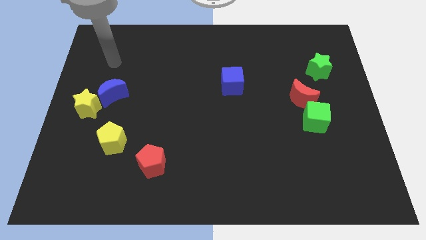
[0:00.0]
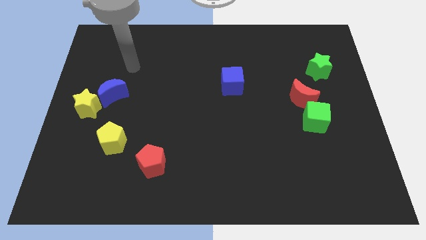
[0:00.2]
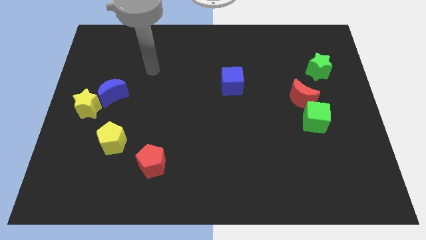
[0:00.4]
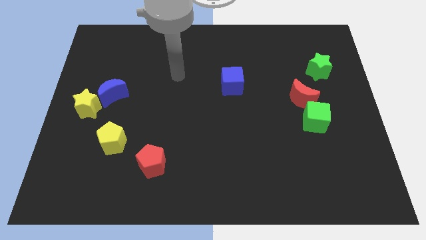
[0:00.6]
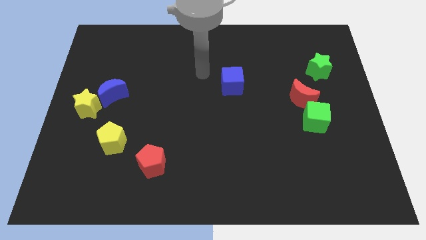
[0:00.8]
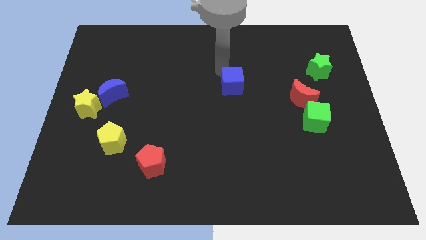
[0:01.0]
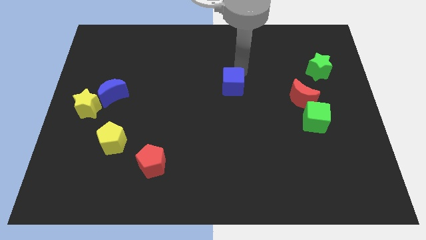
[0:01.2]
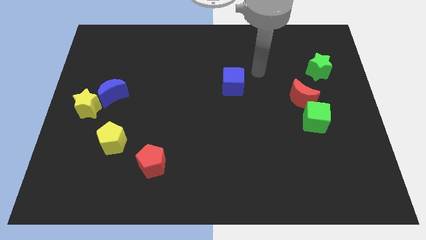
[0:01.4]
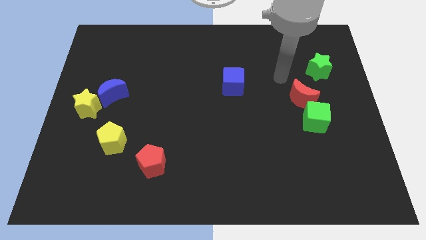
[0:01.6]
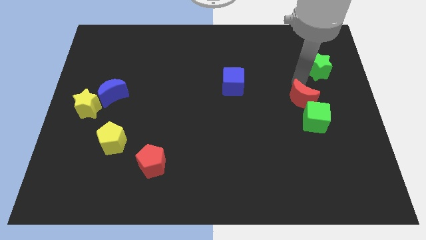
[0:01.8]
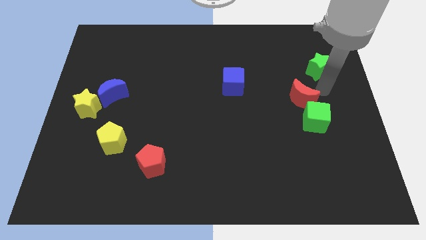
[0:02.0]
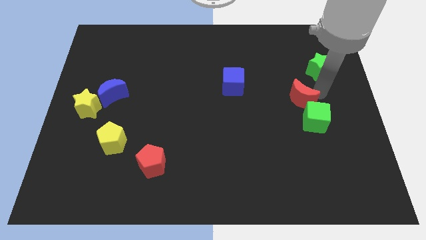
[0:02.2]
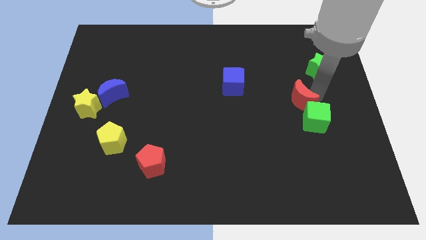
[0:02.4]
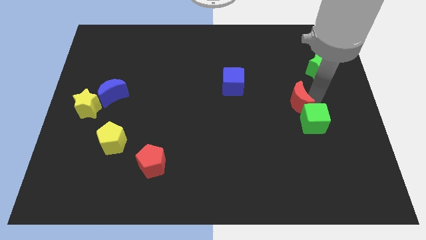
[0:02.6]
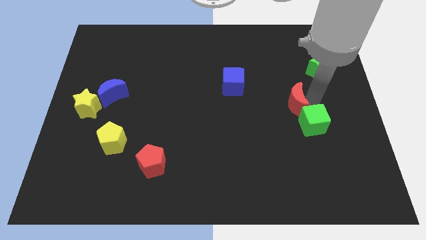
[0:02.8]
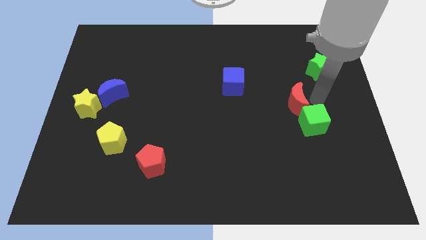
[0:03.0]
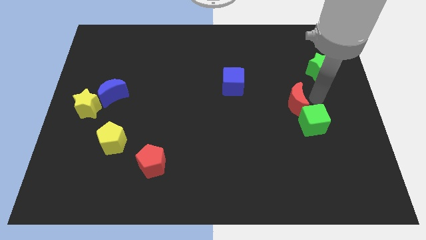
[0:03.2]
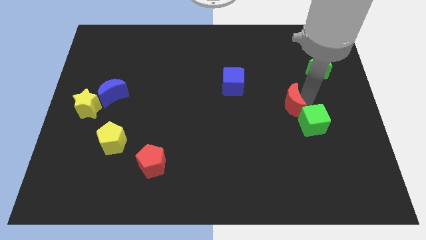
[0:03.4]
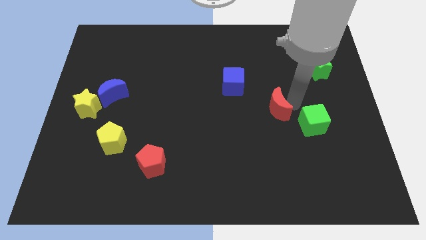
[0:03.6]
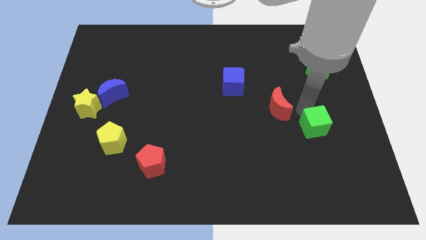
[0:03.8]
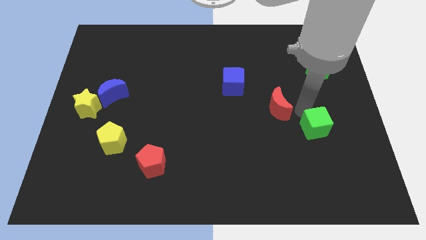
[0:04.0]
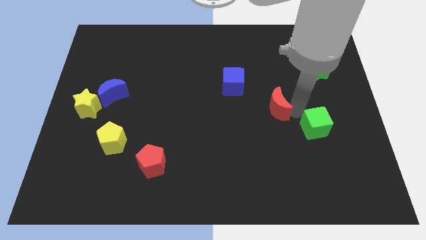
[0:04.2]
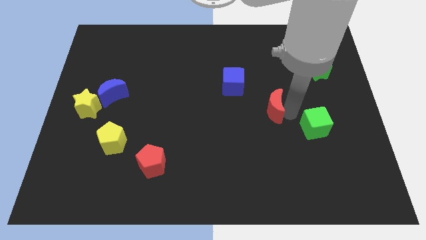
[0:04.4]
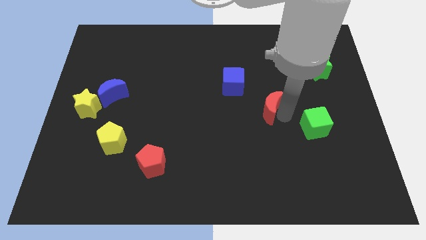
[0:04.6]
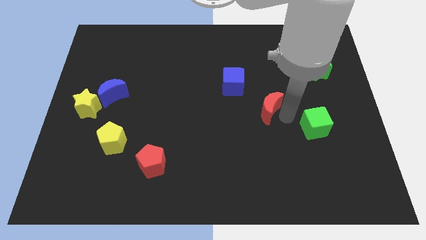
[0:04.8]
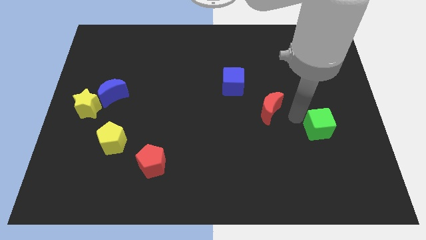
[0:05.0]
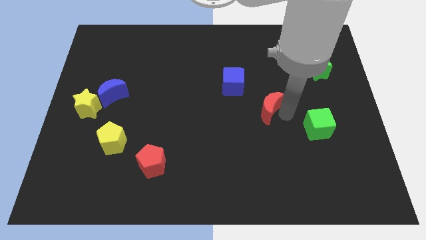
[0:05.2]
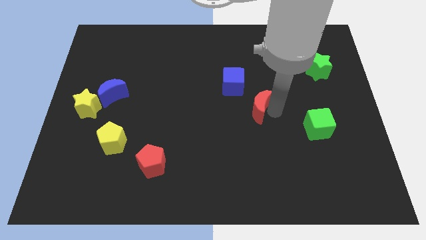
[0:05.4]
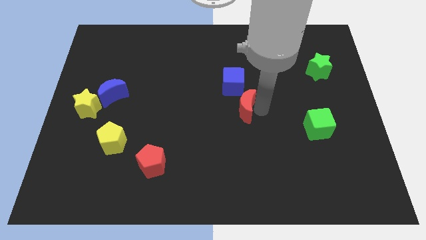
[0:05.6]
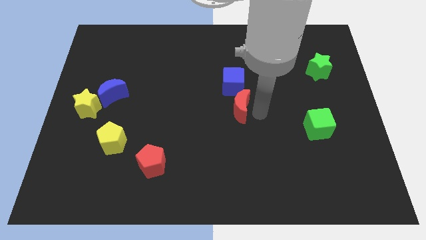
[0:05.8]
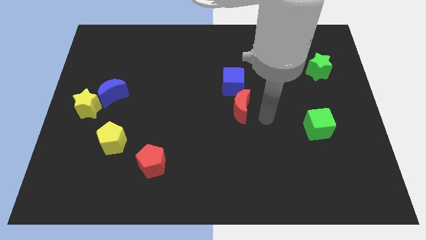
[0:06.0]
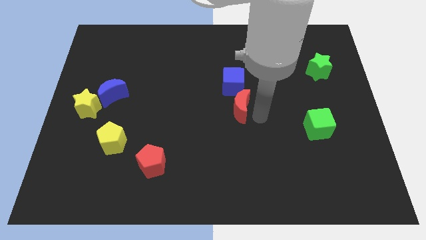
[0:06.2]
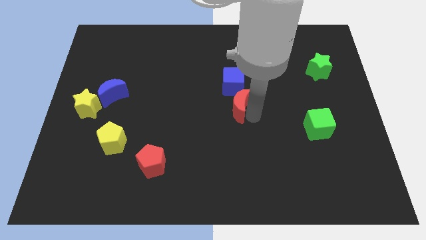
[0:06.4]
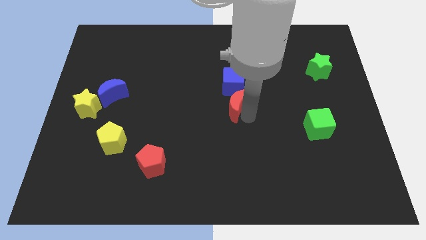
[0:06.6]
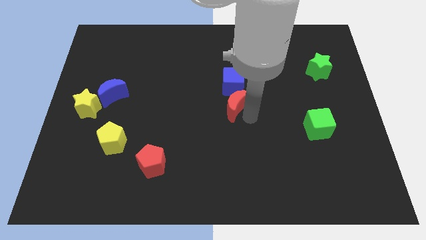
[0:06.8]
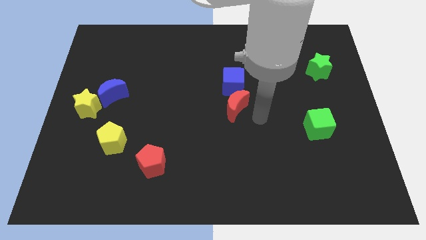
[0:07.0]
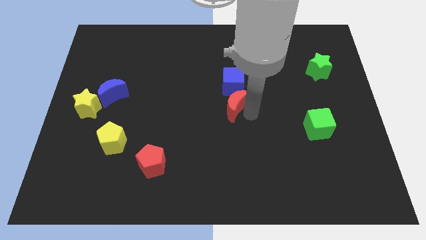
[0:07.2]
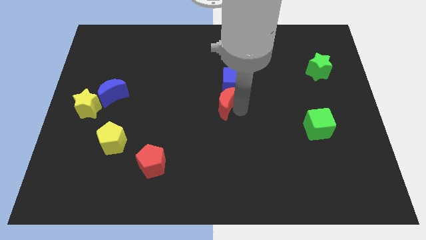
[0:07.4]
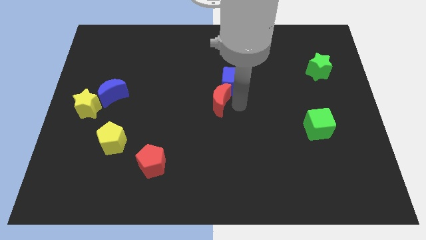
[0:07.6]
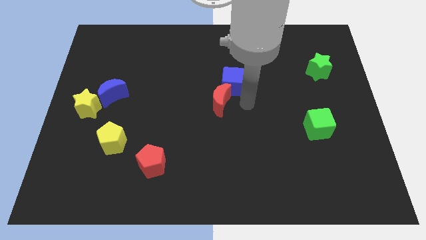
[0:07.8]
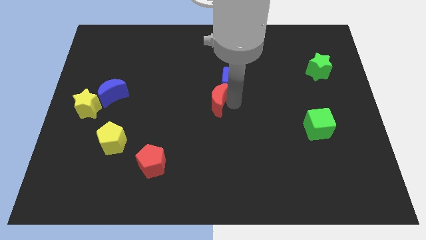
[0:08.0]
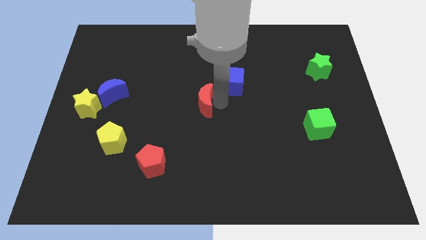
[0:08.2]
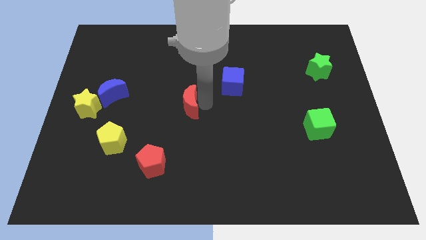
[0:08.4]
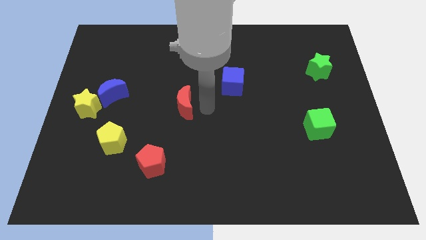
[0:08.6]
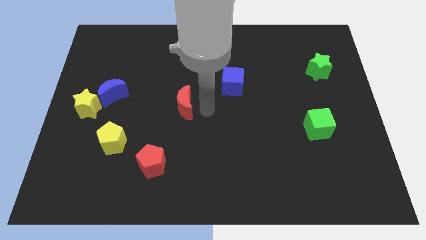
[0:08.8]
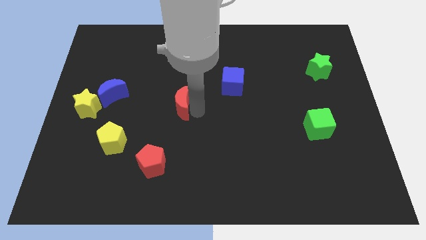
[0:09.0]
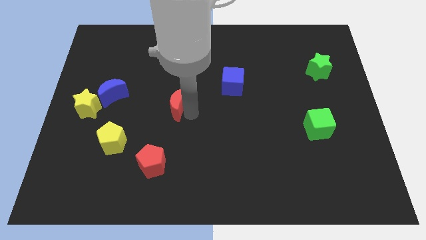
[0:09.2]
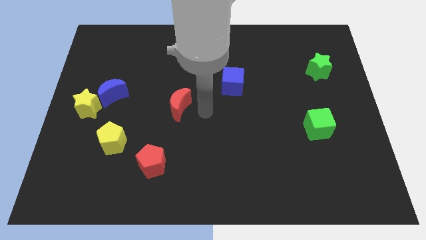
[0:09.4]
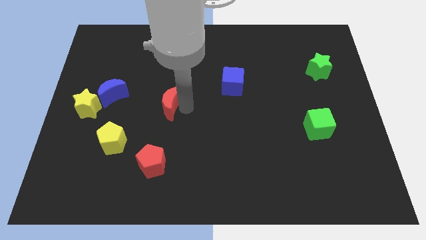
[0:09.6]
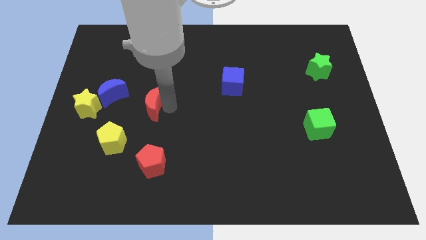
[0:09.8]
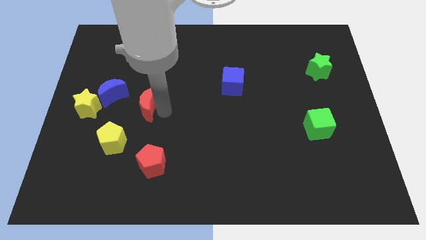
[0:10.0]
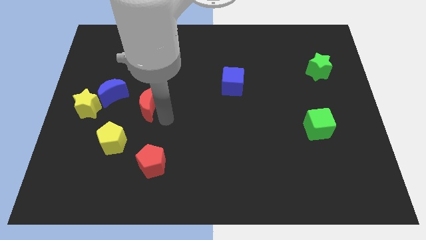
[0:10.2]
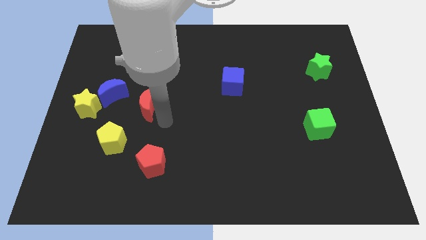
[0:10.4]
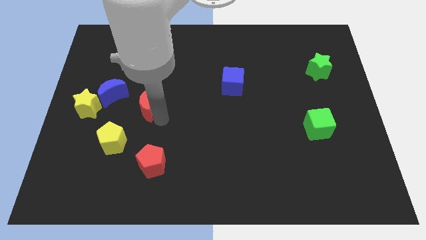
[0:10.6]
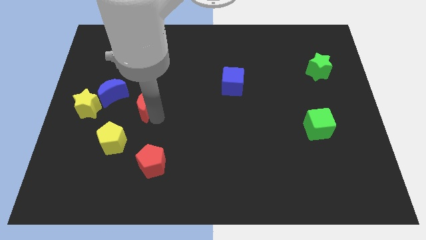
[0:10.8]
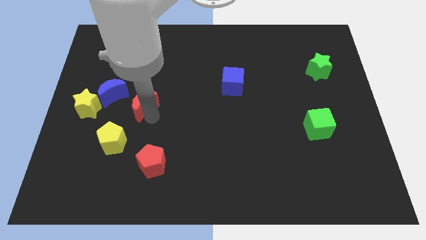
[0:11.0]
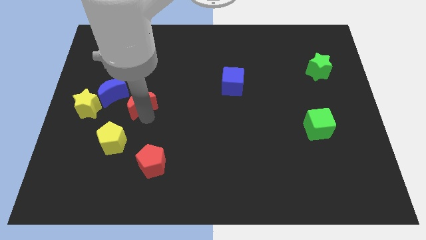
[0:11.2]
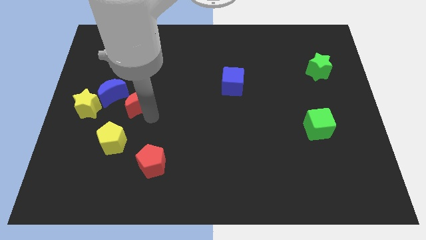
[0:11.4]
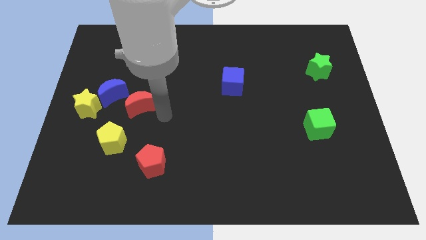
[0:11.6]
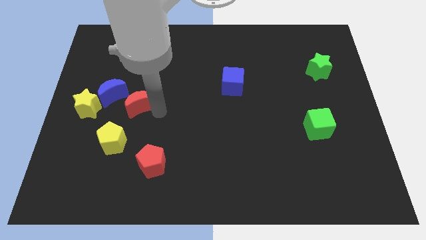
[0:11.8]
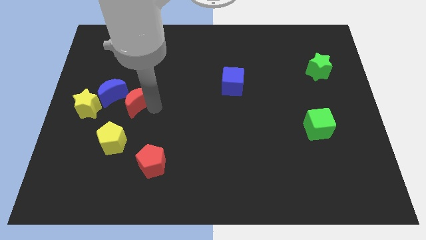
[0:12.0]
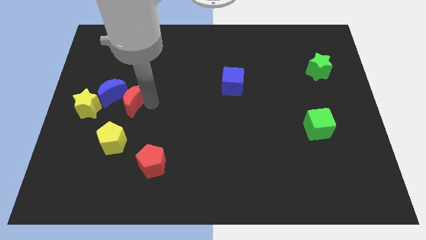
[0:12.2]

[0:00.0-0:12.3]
slide the red moon to the blue moon

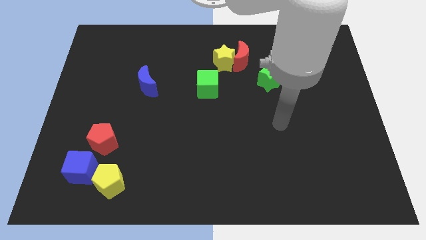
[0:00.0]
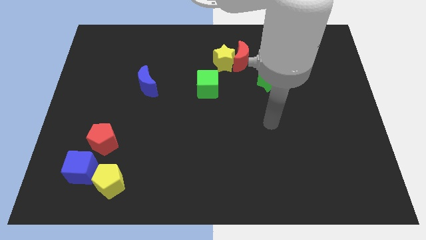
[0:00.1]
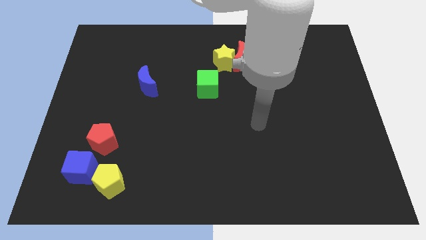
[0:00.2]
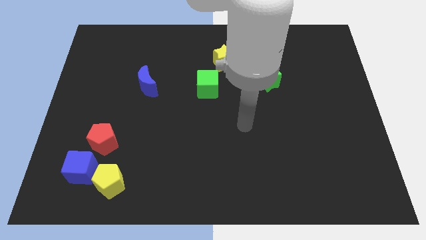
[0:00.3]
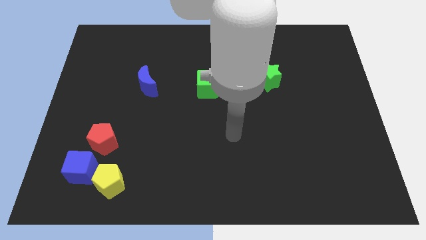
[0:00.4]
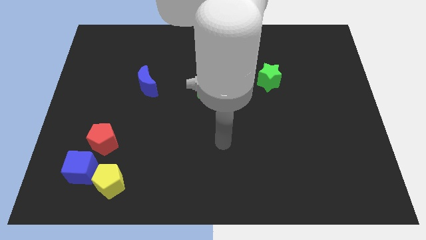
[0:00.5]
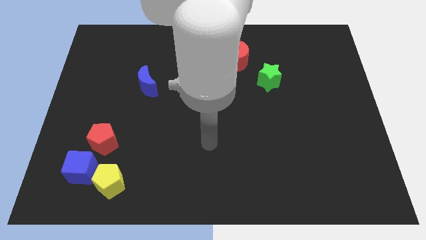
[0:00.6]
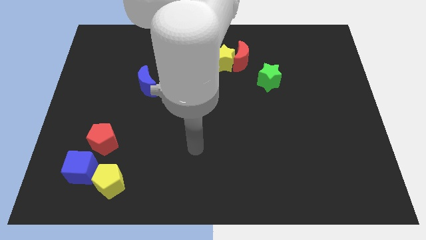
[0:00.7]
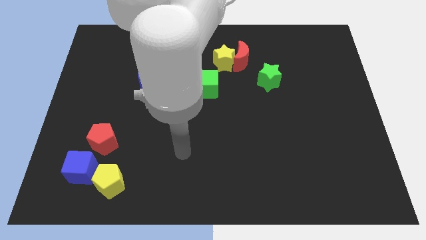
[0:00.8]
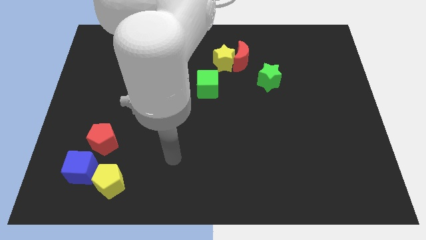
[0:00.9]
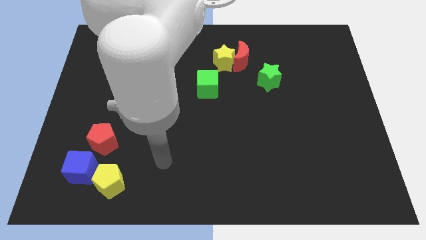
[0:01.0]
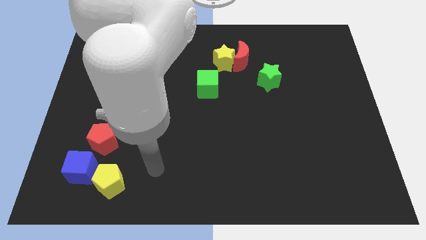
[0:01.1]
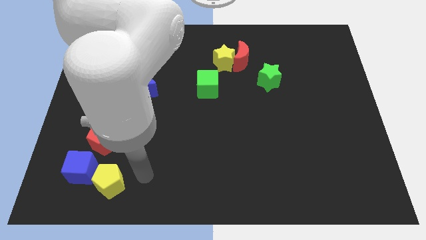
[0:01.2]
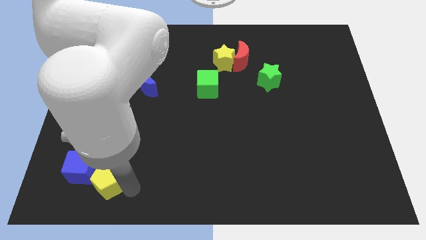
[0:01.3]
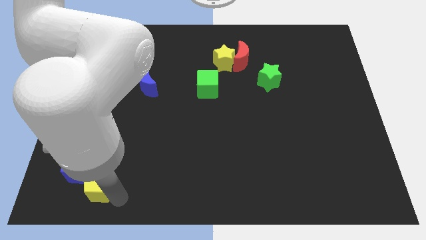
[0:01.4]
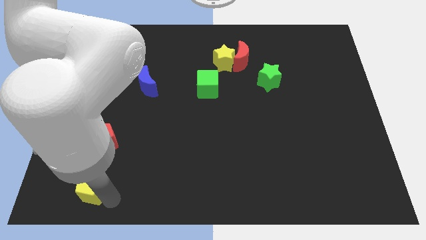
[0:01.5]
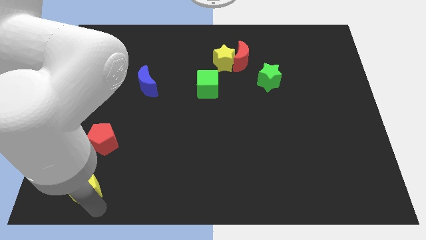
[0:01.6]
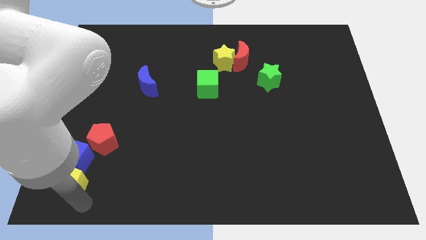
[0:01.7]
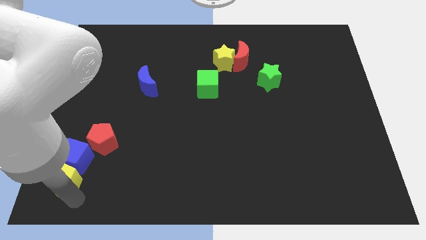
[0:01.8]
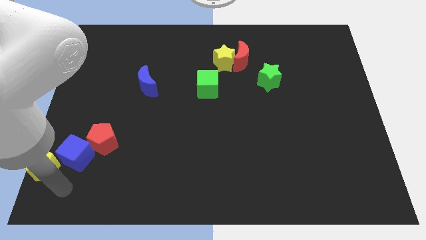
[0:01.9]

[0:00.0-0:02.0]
put the blue cube towards the red pentagon
